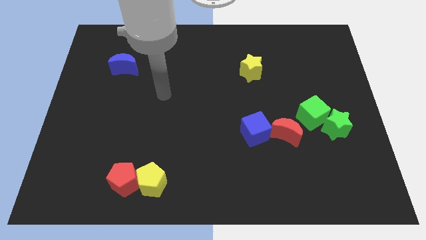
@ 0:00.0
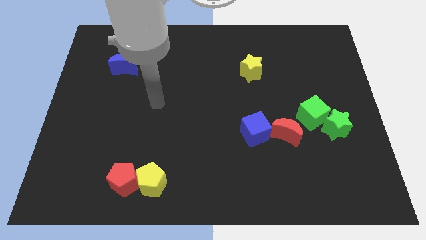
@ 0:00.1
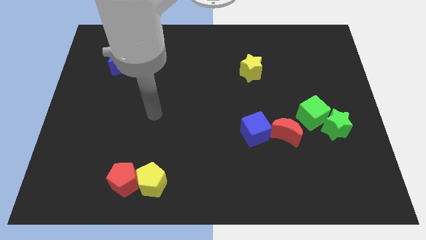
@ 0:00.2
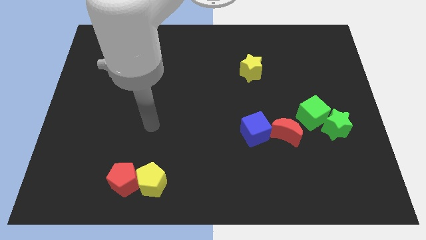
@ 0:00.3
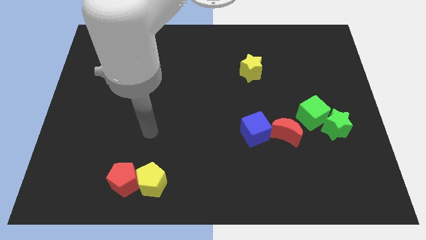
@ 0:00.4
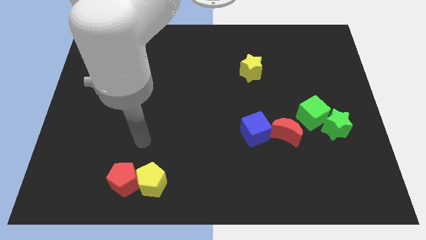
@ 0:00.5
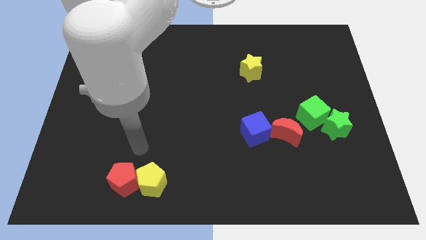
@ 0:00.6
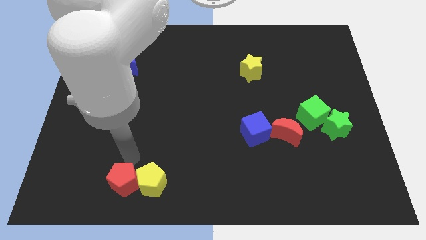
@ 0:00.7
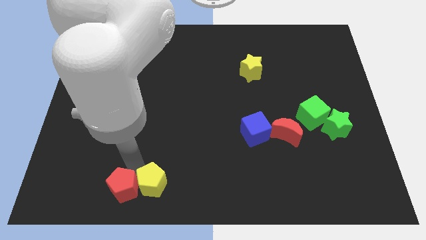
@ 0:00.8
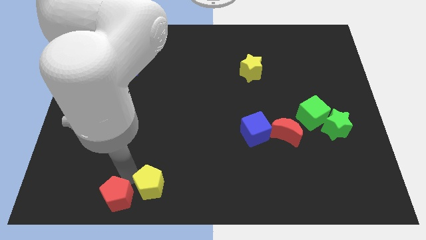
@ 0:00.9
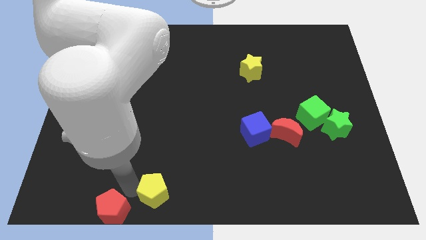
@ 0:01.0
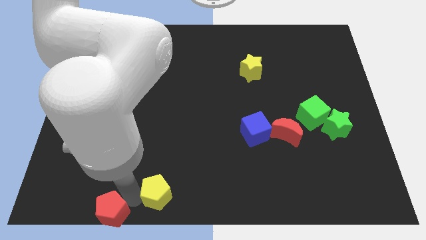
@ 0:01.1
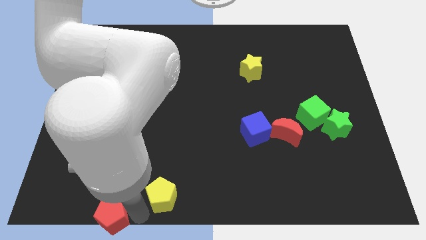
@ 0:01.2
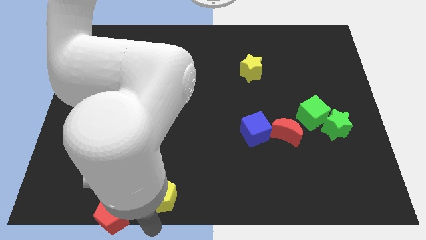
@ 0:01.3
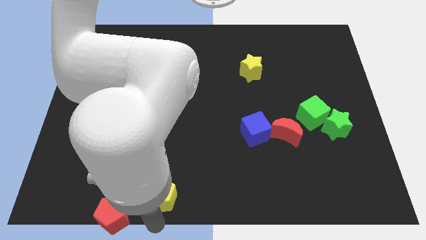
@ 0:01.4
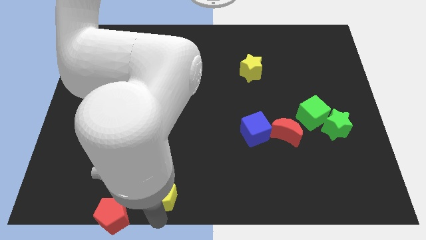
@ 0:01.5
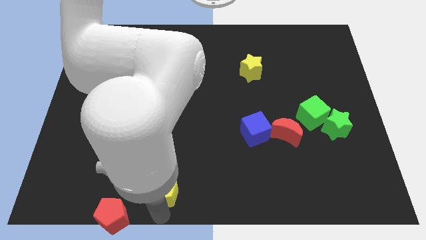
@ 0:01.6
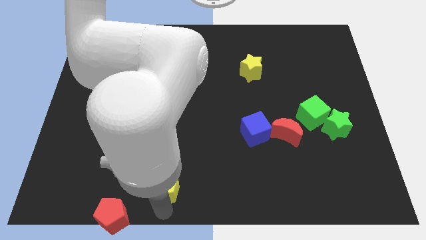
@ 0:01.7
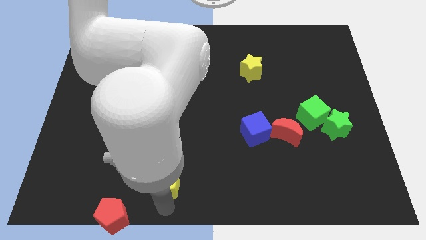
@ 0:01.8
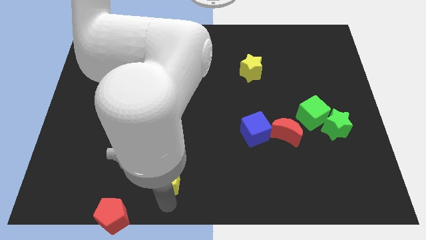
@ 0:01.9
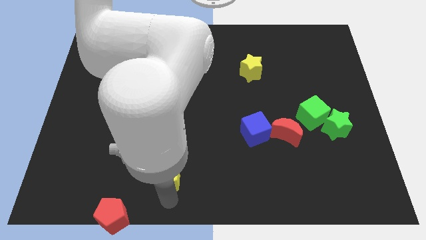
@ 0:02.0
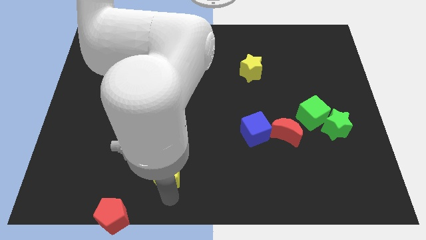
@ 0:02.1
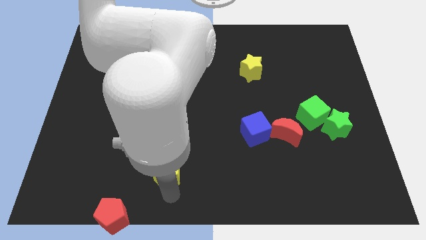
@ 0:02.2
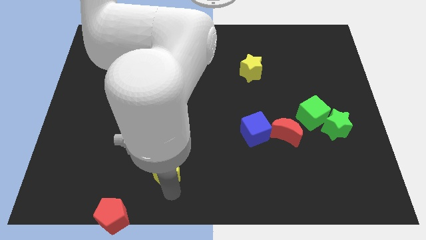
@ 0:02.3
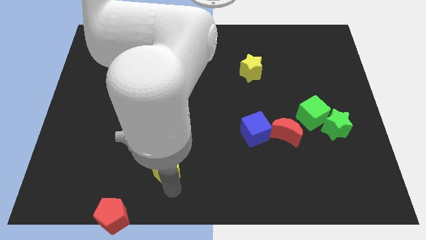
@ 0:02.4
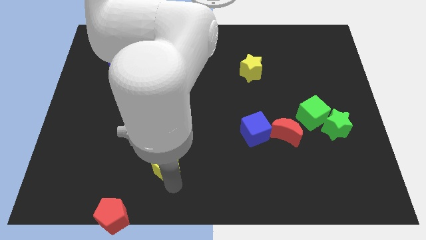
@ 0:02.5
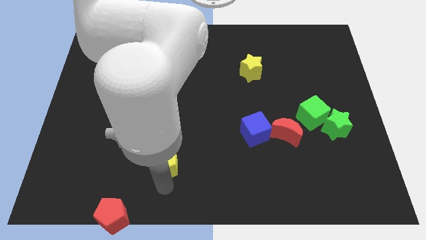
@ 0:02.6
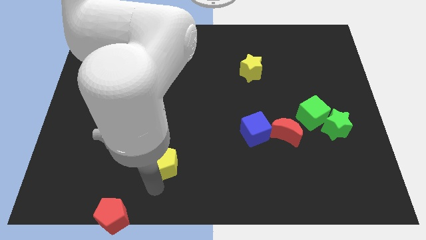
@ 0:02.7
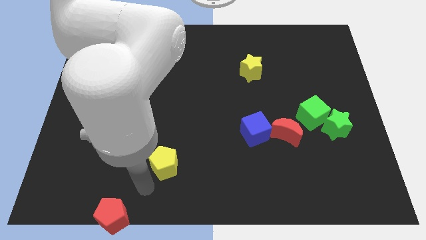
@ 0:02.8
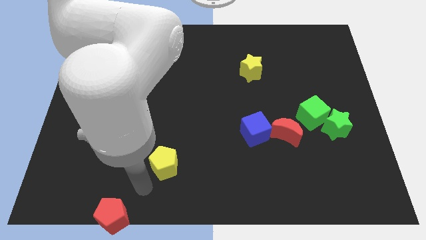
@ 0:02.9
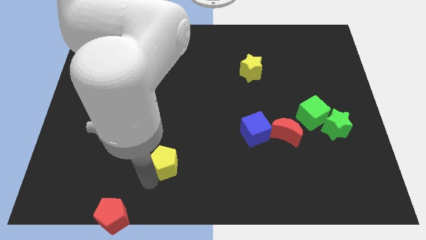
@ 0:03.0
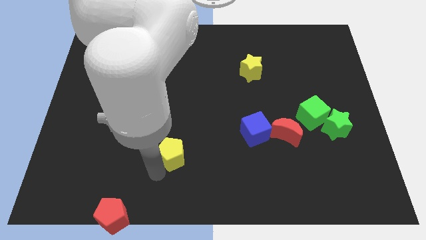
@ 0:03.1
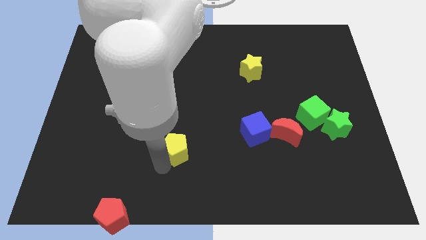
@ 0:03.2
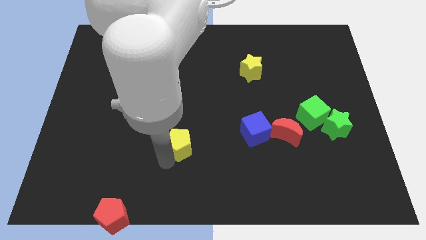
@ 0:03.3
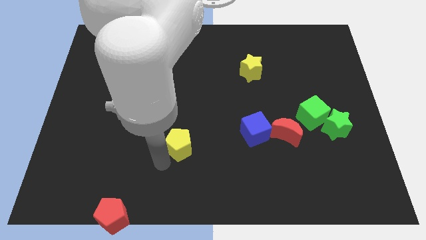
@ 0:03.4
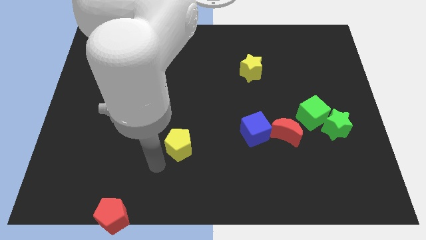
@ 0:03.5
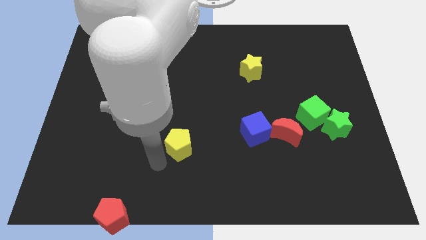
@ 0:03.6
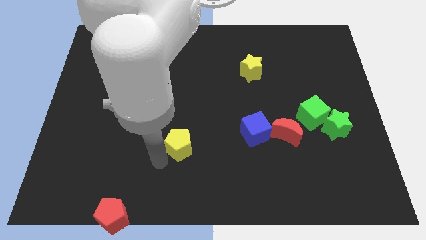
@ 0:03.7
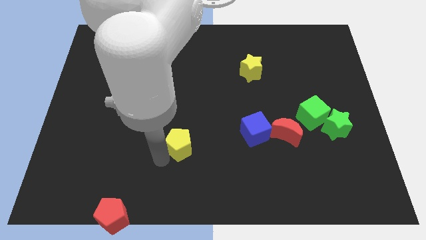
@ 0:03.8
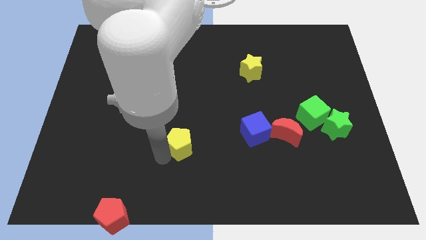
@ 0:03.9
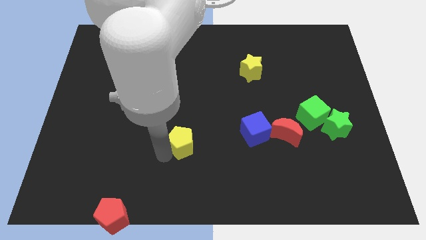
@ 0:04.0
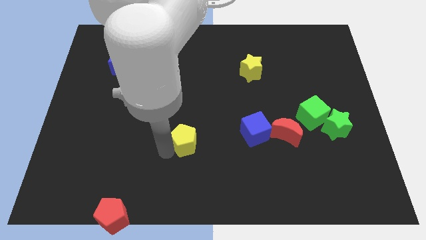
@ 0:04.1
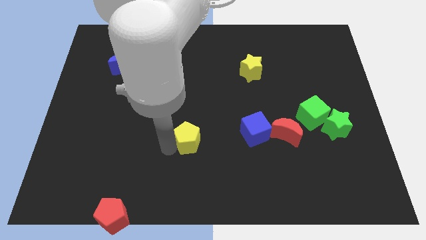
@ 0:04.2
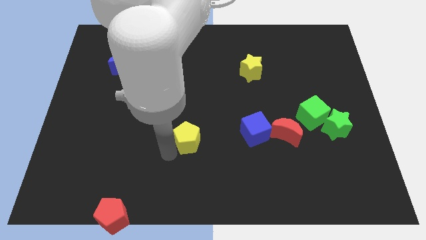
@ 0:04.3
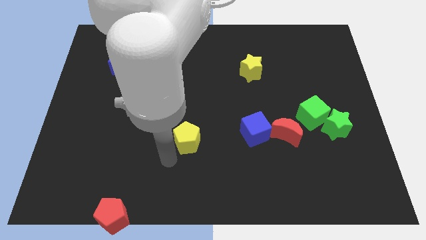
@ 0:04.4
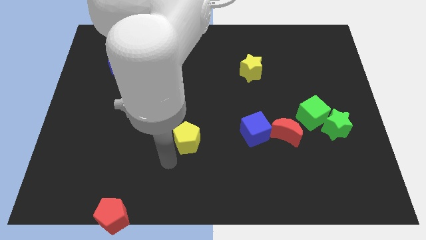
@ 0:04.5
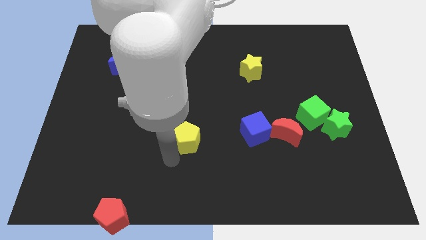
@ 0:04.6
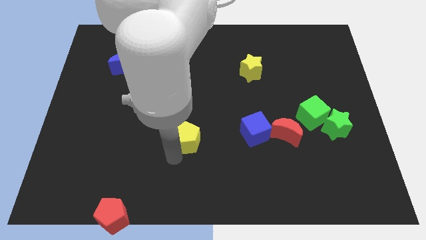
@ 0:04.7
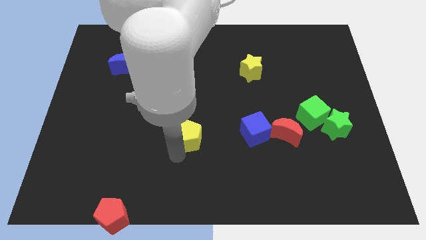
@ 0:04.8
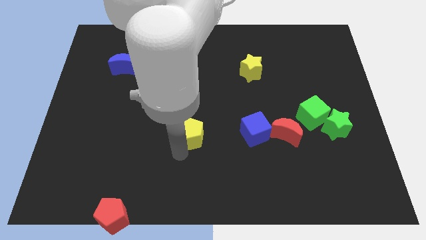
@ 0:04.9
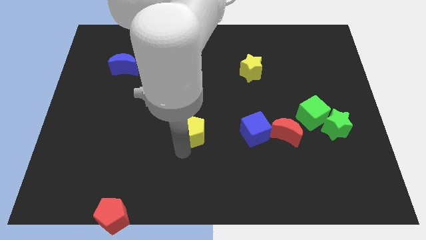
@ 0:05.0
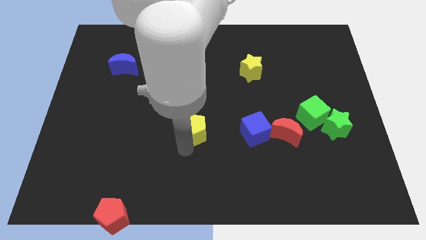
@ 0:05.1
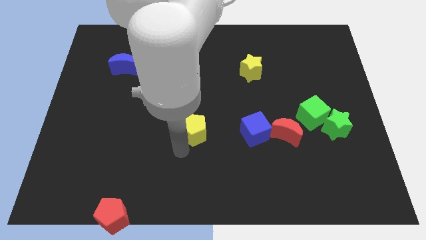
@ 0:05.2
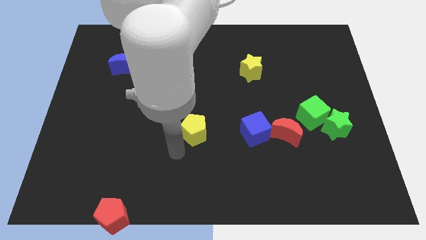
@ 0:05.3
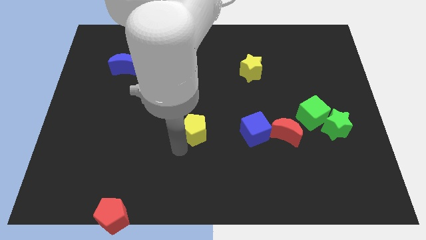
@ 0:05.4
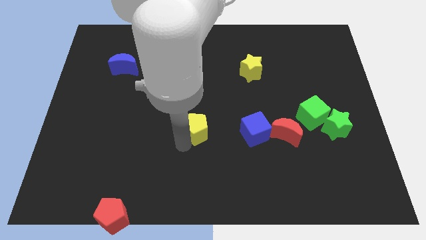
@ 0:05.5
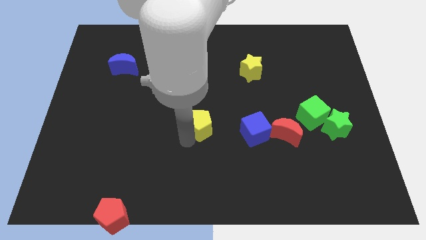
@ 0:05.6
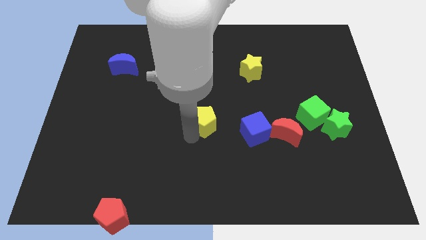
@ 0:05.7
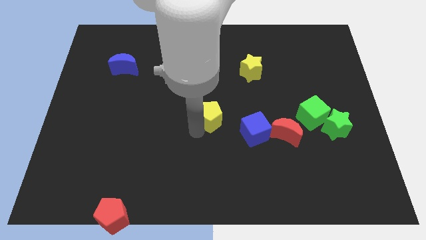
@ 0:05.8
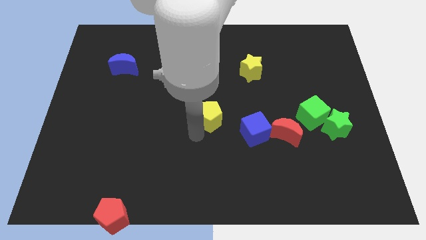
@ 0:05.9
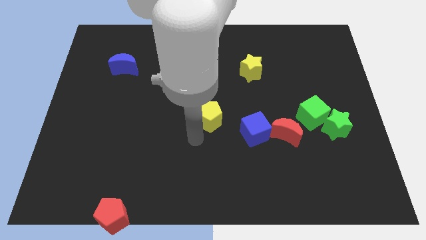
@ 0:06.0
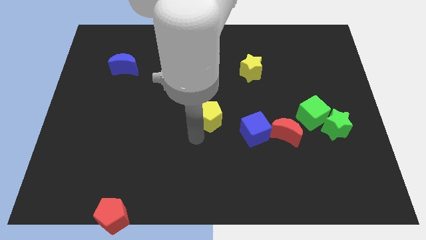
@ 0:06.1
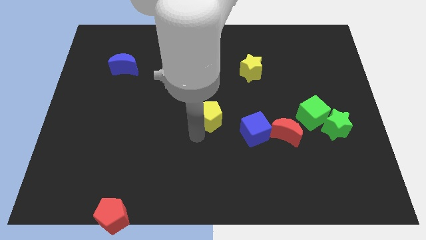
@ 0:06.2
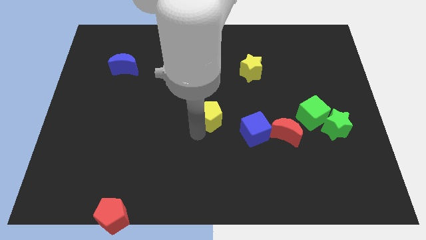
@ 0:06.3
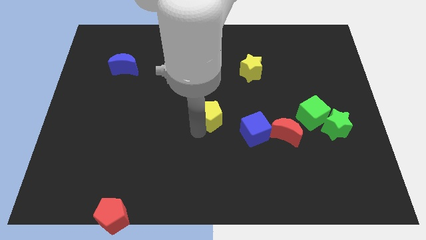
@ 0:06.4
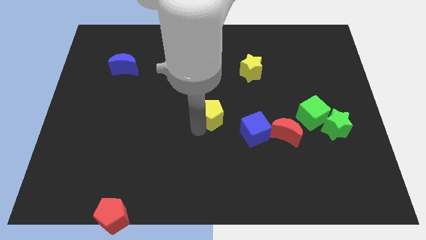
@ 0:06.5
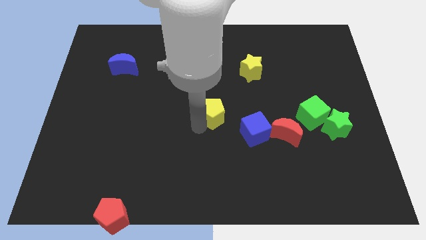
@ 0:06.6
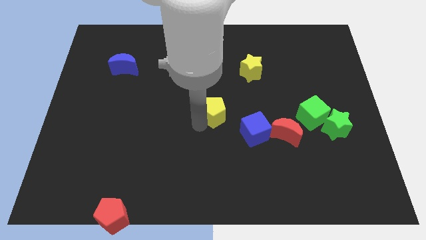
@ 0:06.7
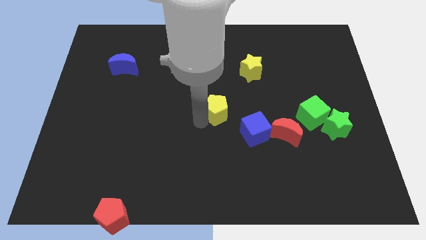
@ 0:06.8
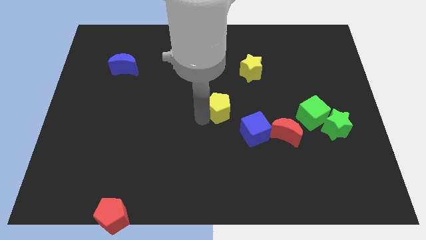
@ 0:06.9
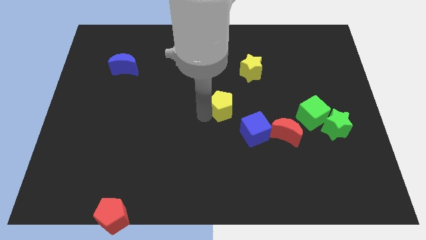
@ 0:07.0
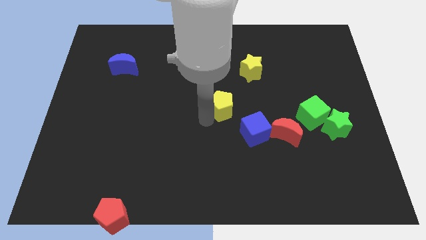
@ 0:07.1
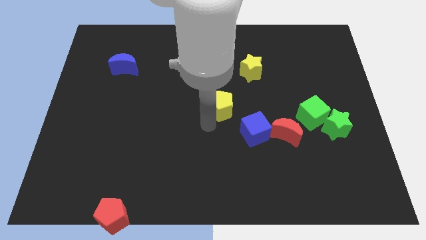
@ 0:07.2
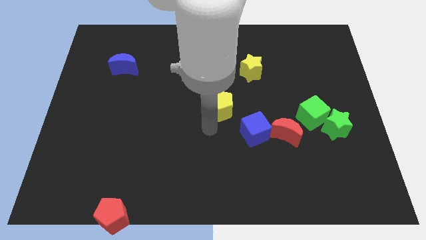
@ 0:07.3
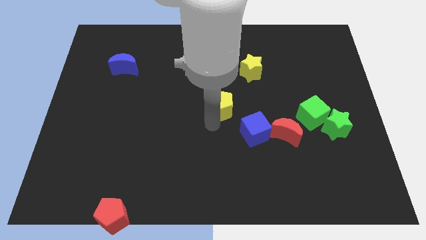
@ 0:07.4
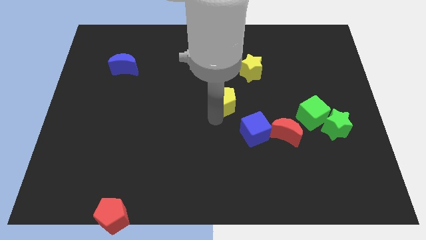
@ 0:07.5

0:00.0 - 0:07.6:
push the yellow pentagon to the bottom left of the yellow star
